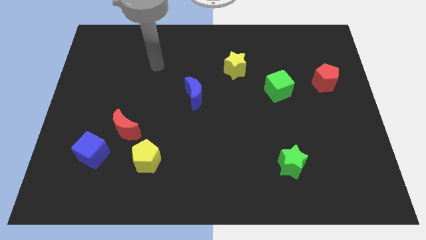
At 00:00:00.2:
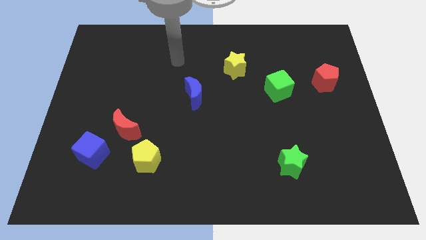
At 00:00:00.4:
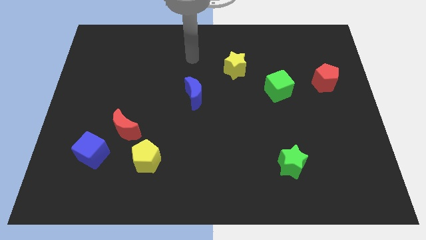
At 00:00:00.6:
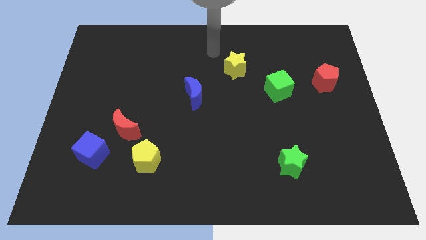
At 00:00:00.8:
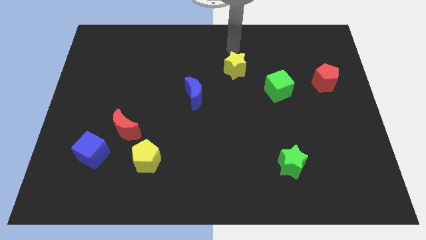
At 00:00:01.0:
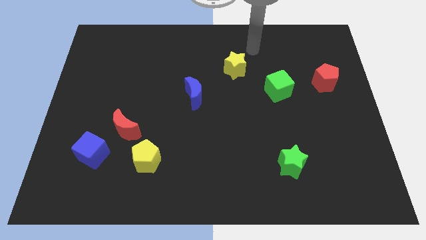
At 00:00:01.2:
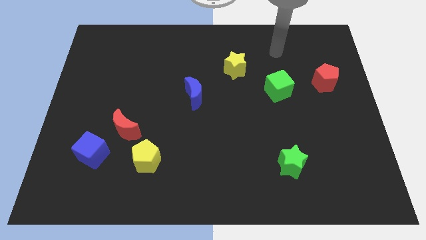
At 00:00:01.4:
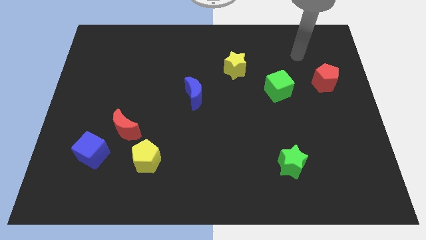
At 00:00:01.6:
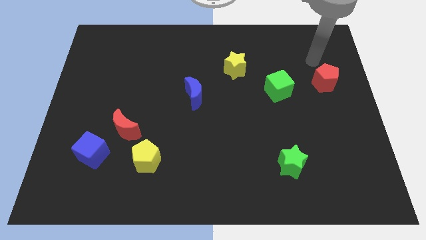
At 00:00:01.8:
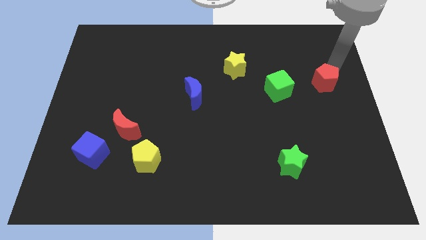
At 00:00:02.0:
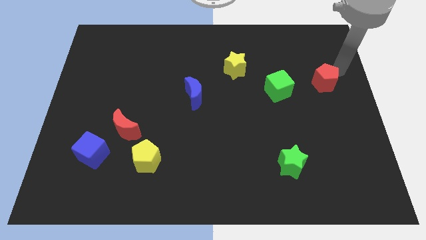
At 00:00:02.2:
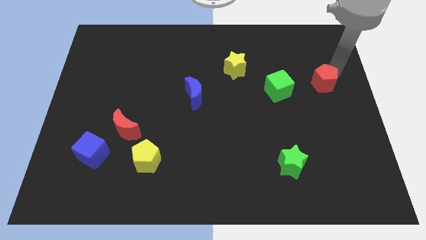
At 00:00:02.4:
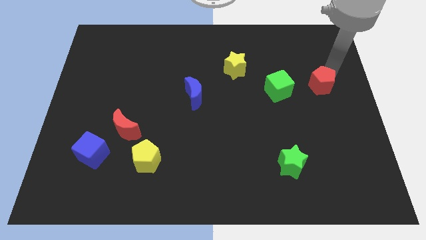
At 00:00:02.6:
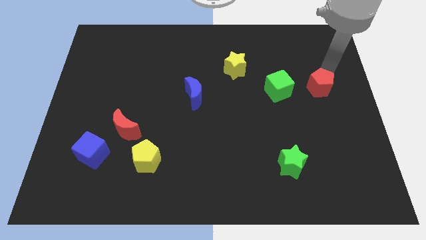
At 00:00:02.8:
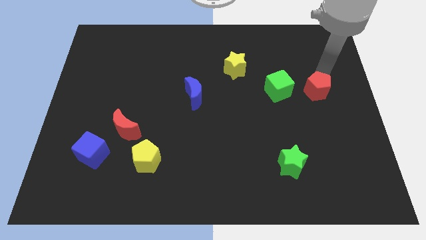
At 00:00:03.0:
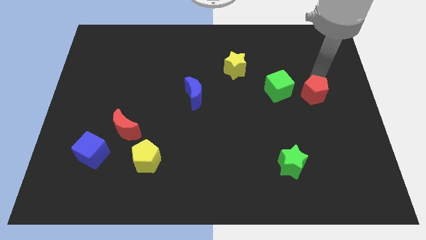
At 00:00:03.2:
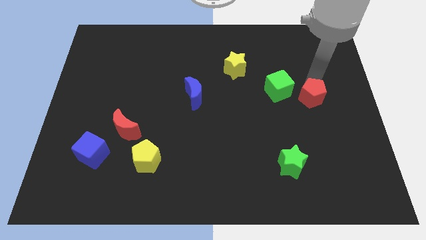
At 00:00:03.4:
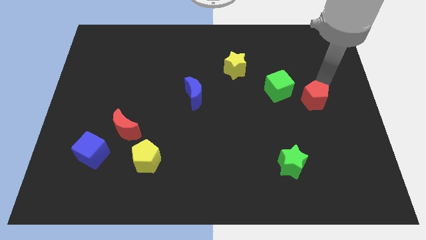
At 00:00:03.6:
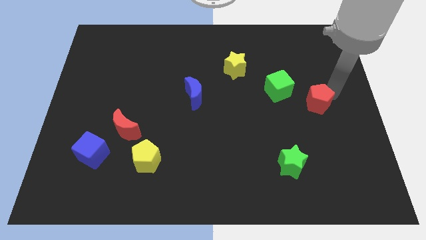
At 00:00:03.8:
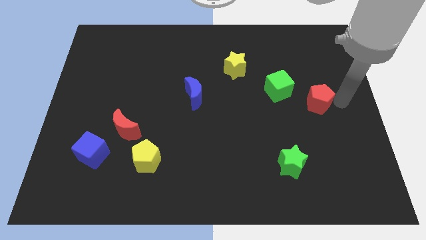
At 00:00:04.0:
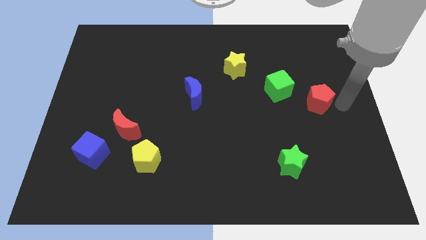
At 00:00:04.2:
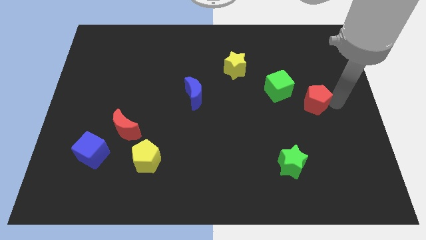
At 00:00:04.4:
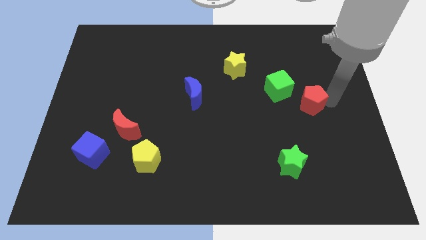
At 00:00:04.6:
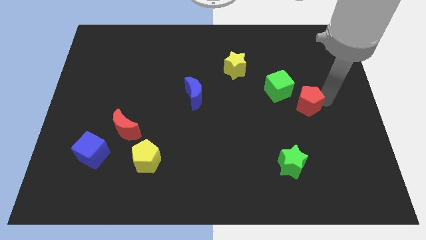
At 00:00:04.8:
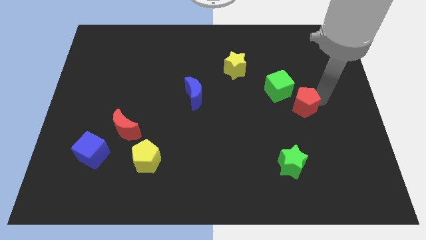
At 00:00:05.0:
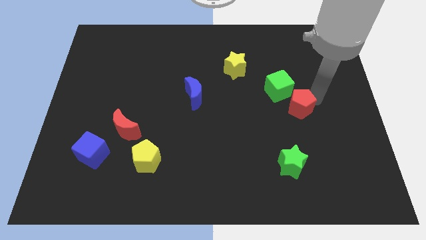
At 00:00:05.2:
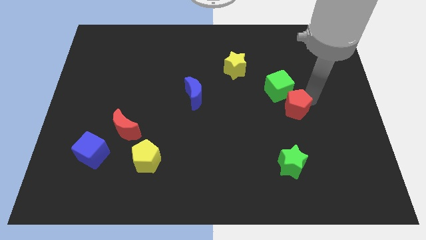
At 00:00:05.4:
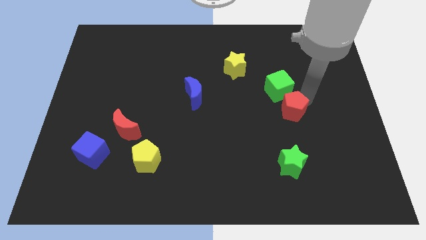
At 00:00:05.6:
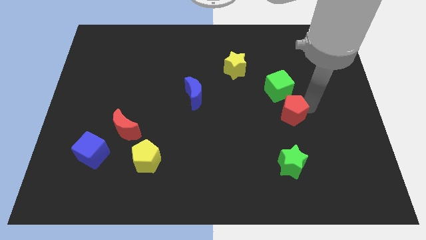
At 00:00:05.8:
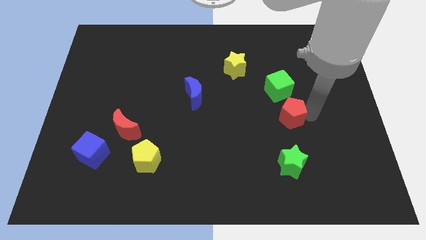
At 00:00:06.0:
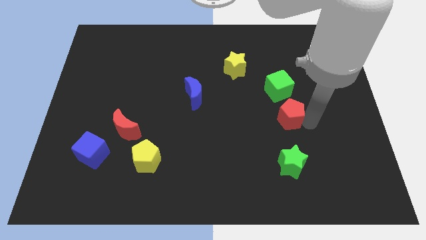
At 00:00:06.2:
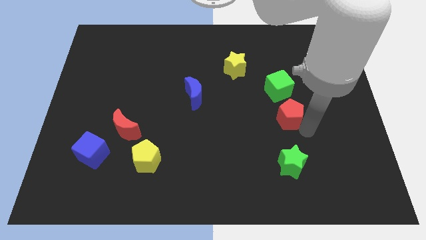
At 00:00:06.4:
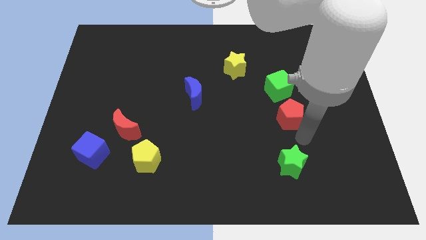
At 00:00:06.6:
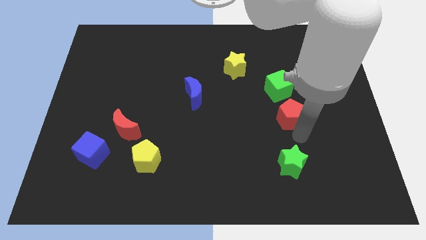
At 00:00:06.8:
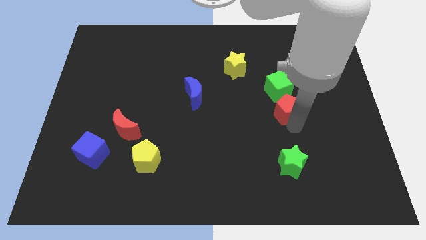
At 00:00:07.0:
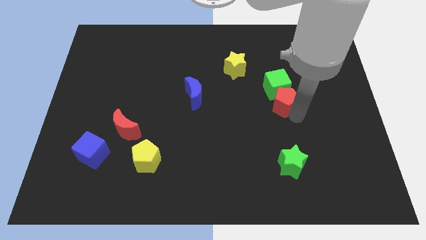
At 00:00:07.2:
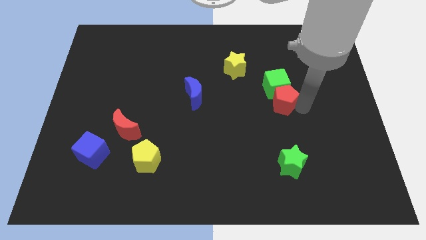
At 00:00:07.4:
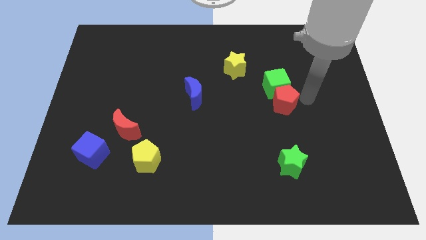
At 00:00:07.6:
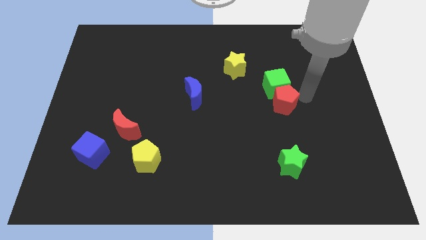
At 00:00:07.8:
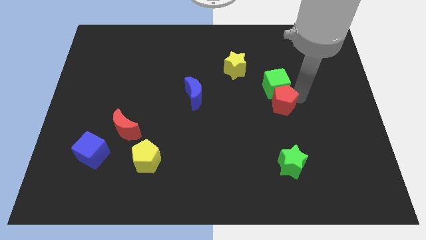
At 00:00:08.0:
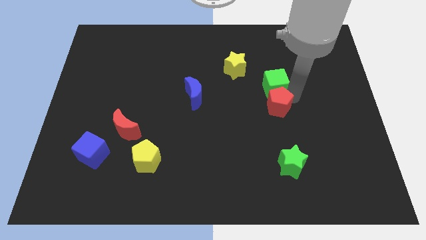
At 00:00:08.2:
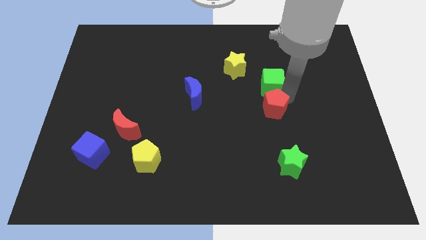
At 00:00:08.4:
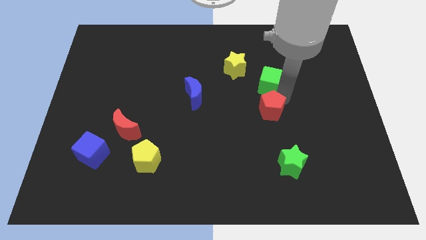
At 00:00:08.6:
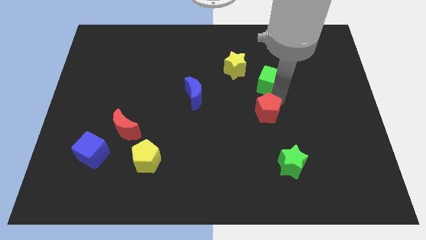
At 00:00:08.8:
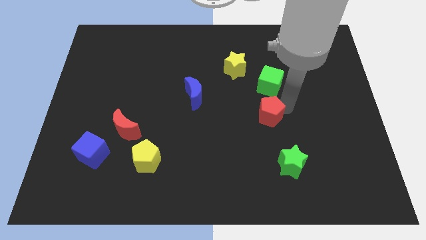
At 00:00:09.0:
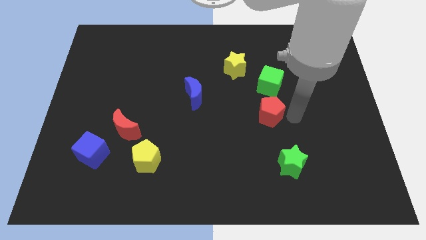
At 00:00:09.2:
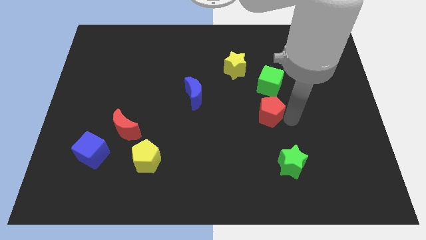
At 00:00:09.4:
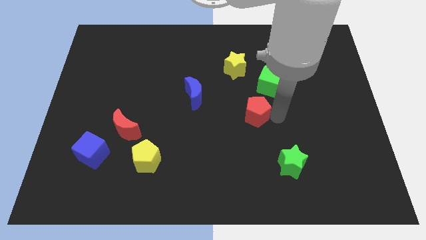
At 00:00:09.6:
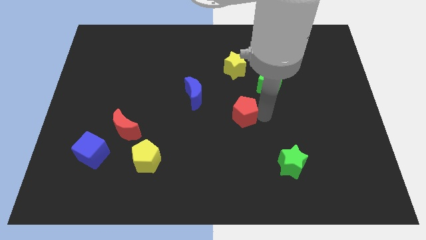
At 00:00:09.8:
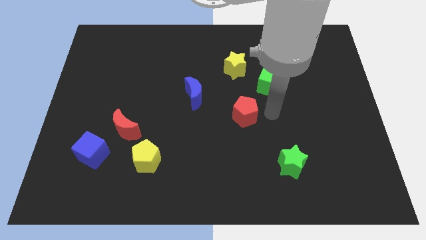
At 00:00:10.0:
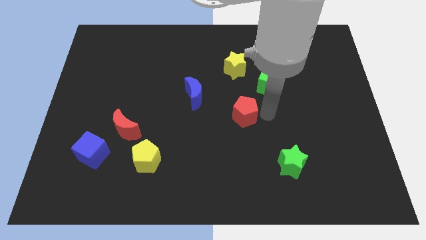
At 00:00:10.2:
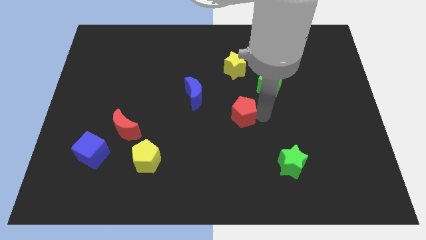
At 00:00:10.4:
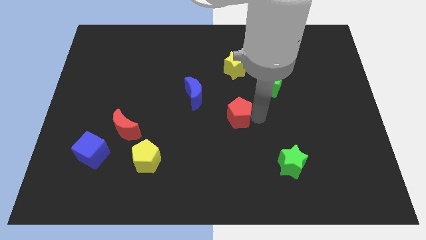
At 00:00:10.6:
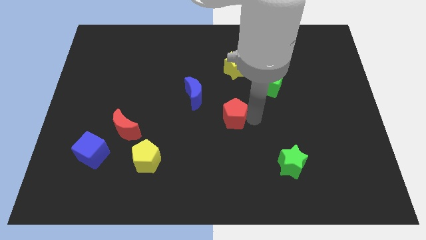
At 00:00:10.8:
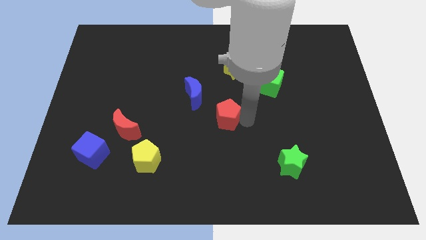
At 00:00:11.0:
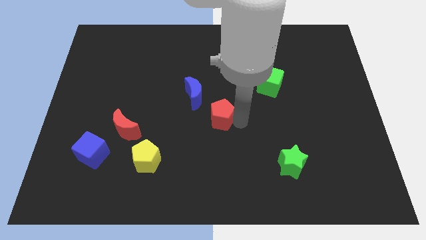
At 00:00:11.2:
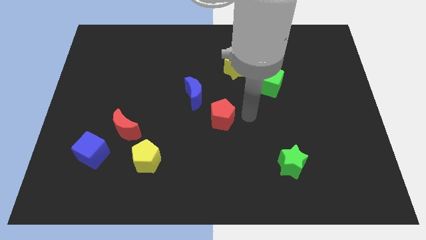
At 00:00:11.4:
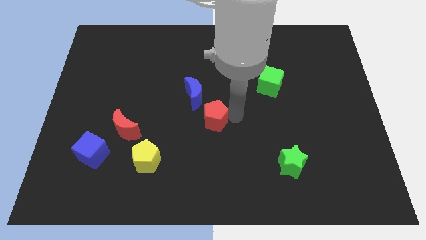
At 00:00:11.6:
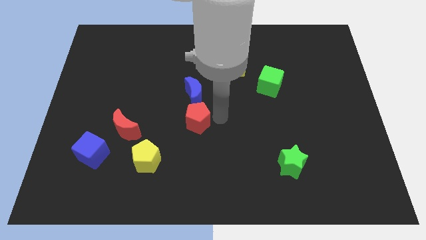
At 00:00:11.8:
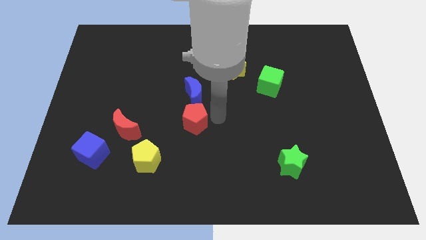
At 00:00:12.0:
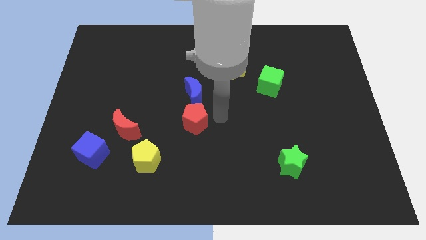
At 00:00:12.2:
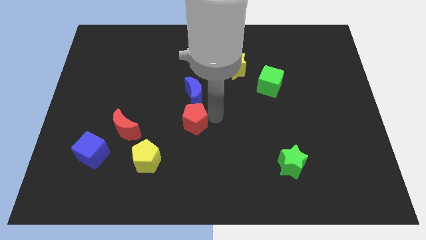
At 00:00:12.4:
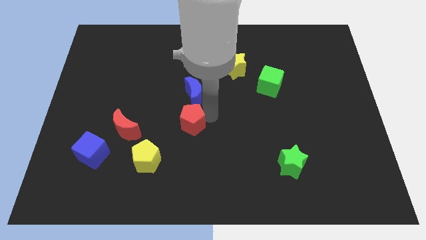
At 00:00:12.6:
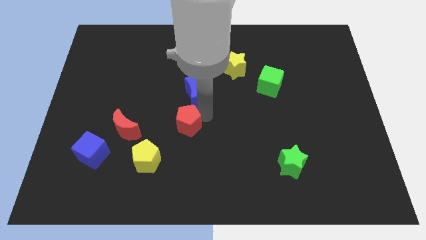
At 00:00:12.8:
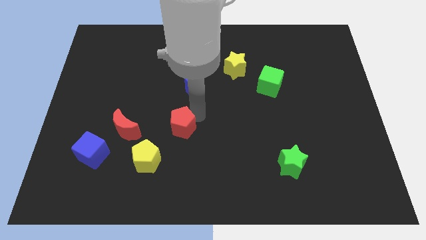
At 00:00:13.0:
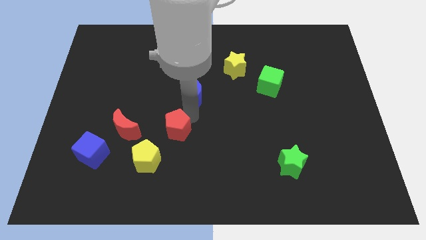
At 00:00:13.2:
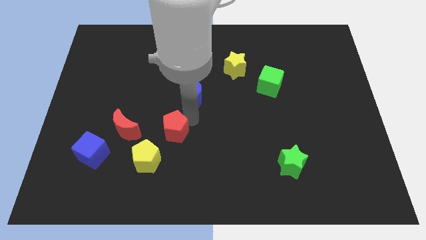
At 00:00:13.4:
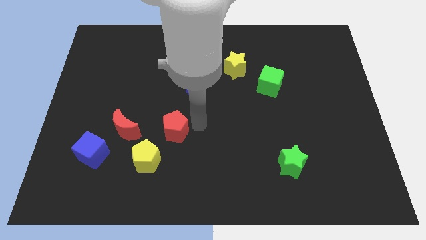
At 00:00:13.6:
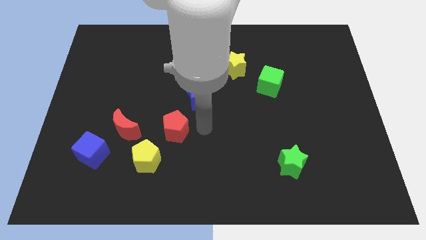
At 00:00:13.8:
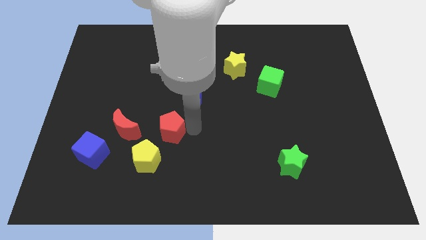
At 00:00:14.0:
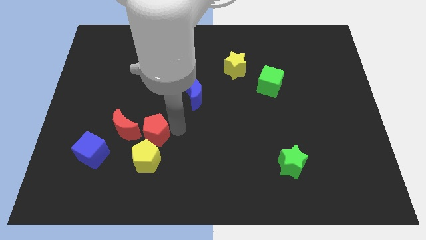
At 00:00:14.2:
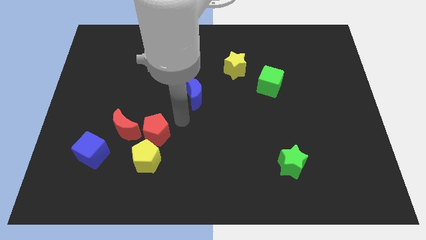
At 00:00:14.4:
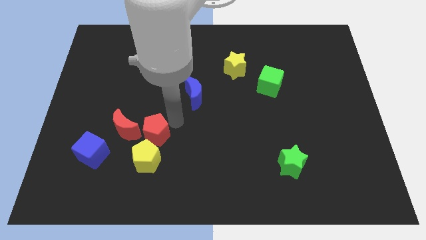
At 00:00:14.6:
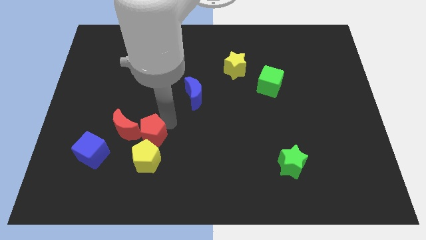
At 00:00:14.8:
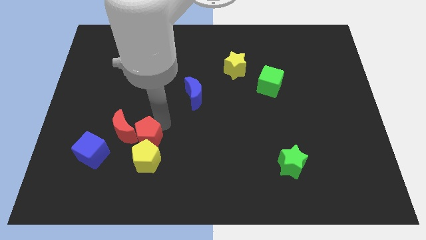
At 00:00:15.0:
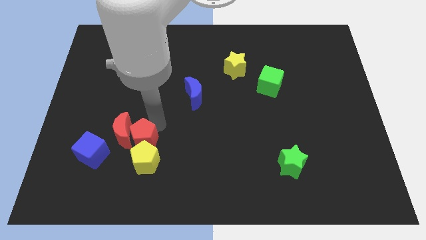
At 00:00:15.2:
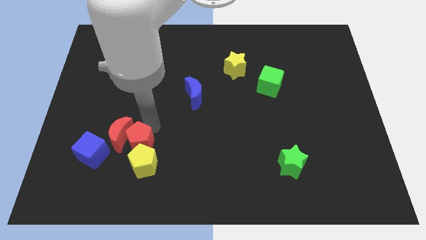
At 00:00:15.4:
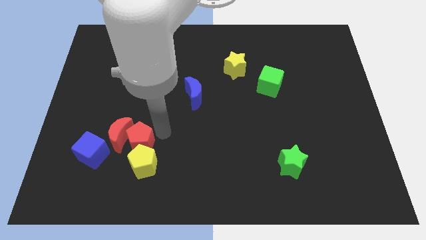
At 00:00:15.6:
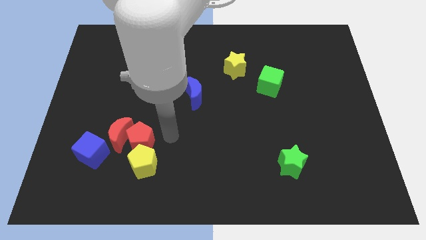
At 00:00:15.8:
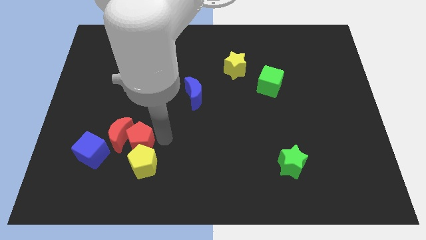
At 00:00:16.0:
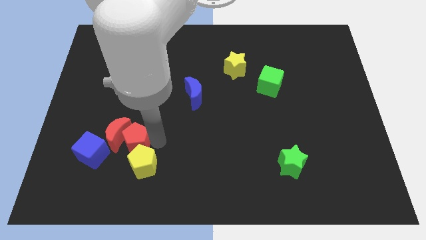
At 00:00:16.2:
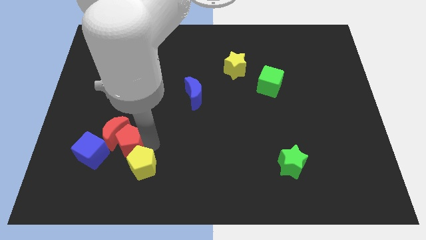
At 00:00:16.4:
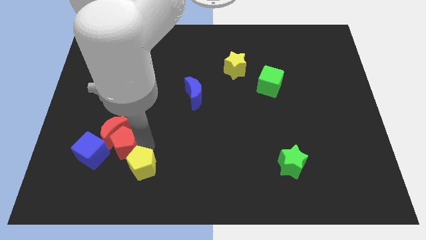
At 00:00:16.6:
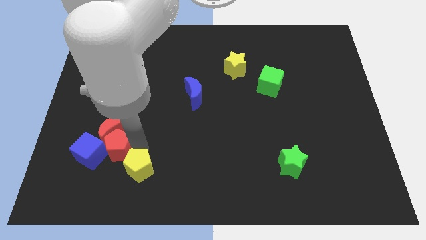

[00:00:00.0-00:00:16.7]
slide the red pentagon close to the blue cube
